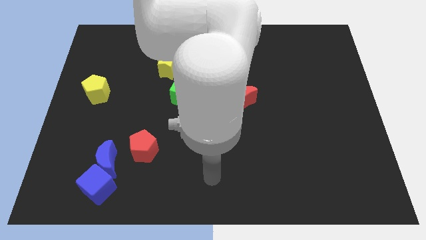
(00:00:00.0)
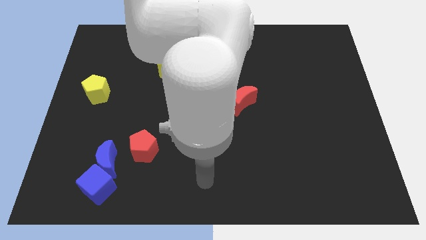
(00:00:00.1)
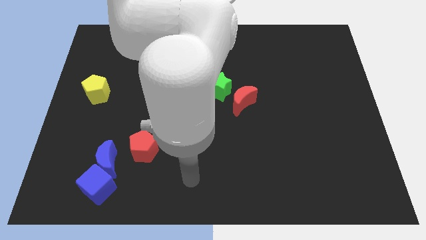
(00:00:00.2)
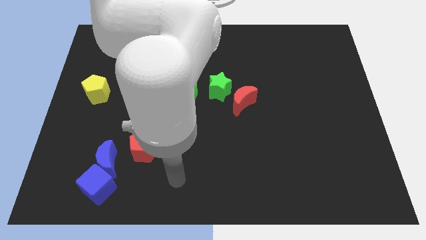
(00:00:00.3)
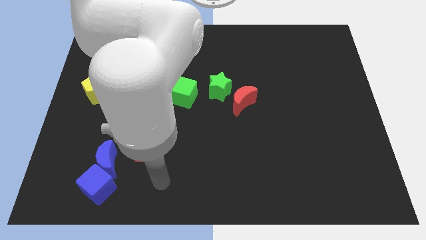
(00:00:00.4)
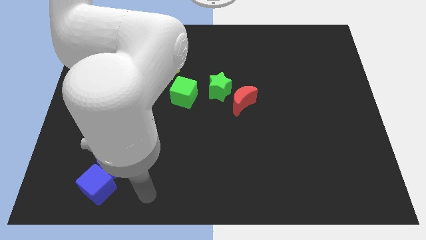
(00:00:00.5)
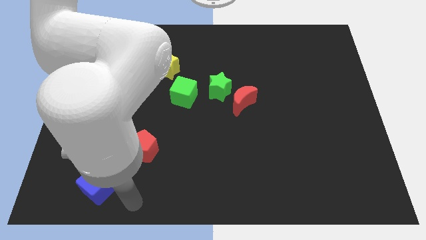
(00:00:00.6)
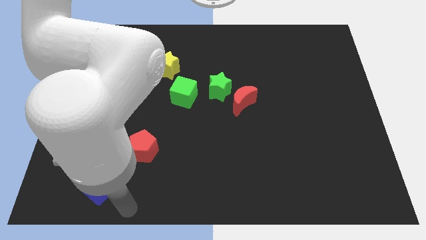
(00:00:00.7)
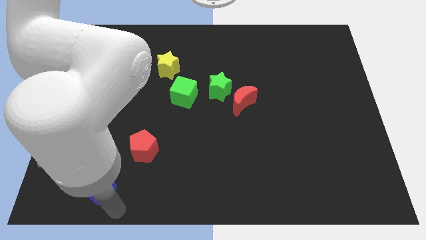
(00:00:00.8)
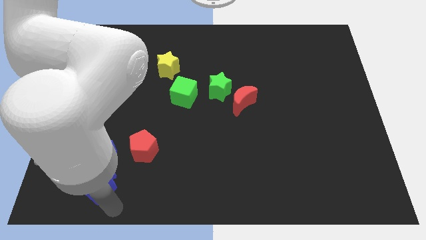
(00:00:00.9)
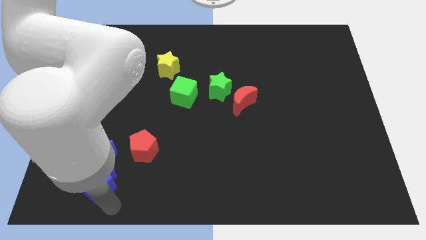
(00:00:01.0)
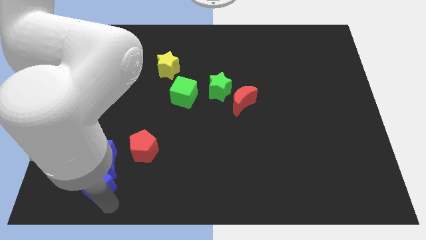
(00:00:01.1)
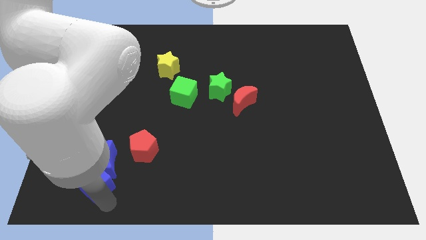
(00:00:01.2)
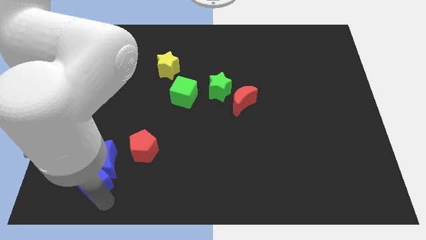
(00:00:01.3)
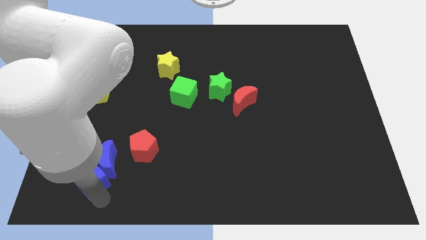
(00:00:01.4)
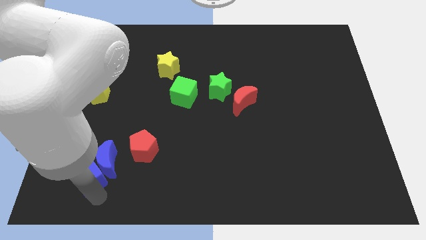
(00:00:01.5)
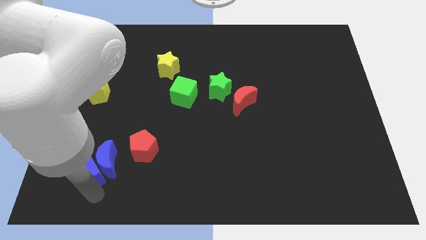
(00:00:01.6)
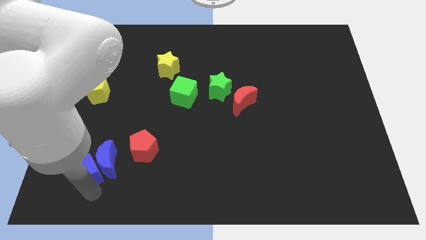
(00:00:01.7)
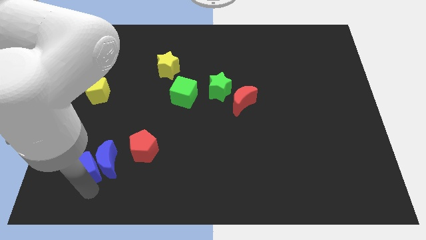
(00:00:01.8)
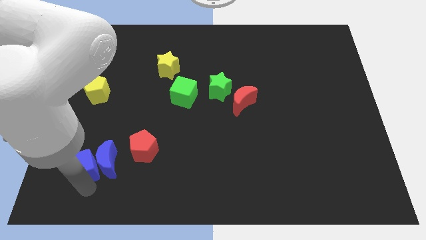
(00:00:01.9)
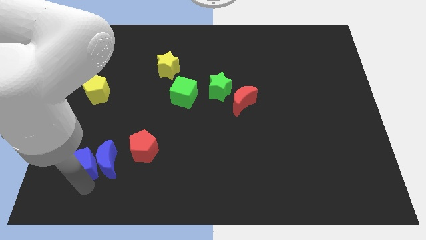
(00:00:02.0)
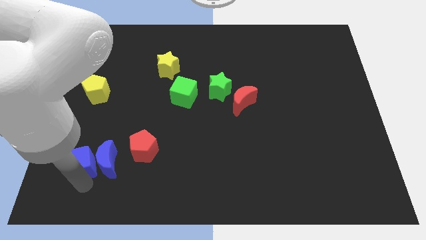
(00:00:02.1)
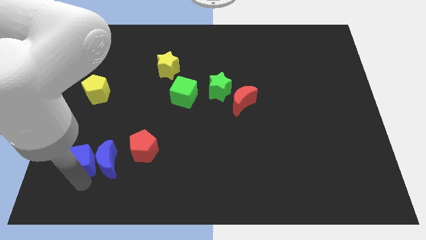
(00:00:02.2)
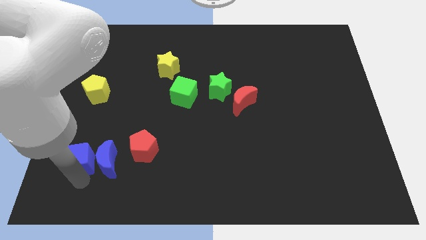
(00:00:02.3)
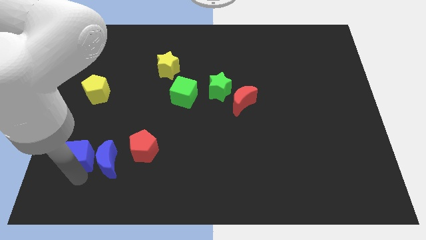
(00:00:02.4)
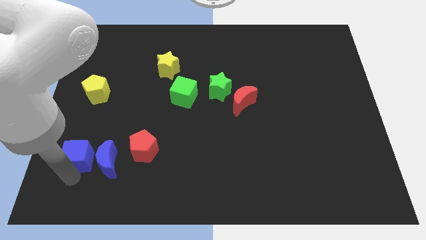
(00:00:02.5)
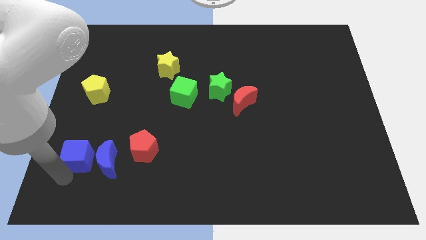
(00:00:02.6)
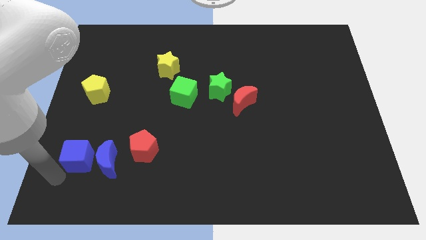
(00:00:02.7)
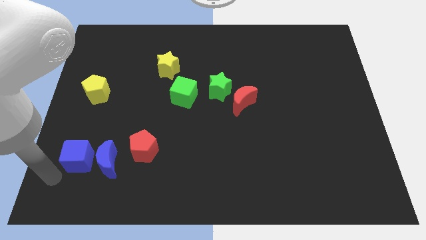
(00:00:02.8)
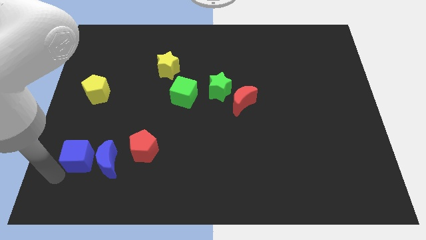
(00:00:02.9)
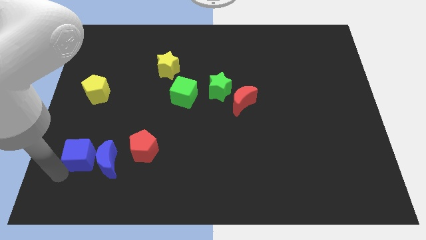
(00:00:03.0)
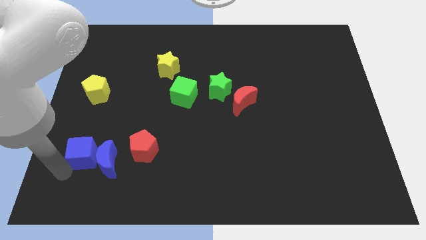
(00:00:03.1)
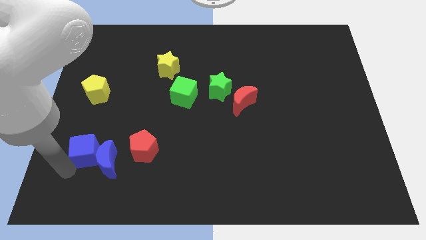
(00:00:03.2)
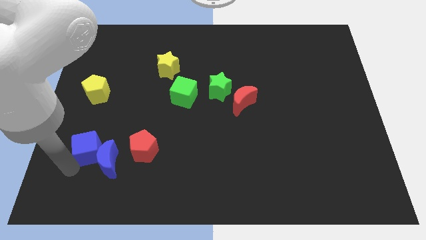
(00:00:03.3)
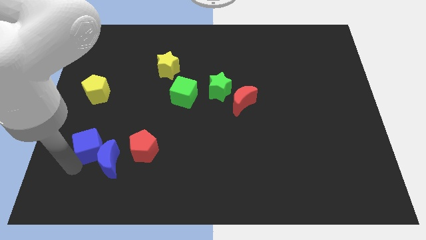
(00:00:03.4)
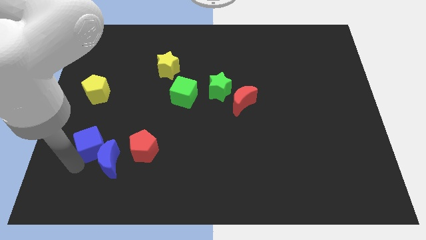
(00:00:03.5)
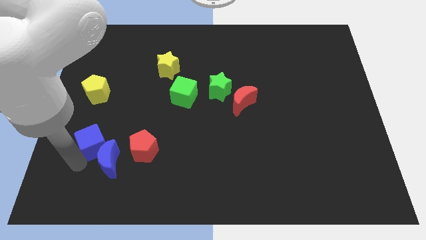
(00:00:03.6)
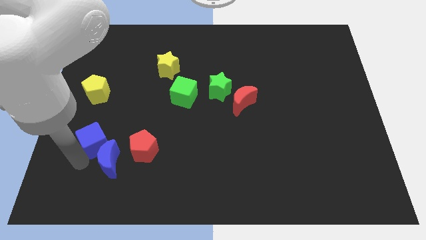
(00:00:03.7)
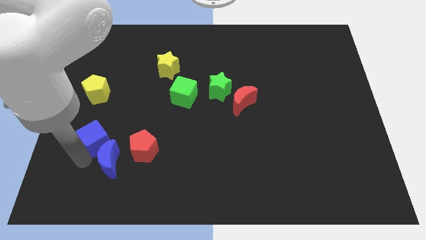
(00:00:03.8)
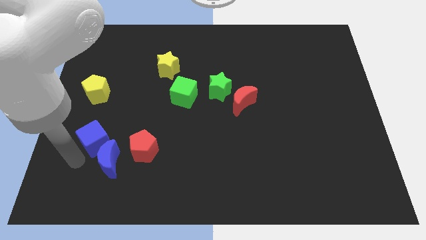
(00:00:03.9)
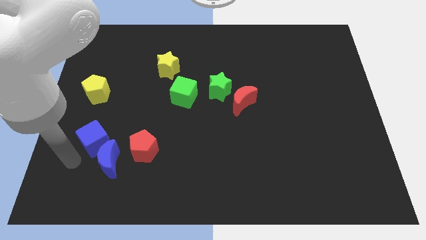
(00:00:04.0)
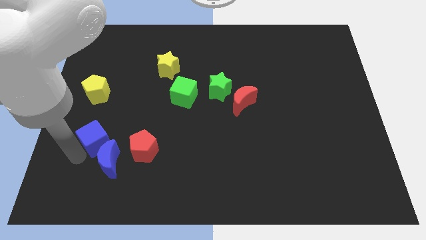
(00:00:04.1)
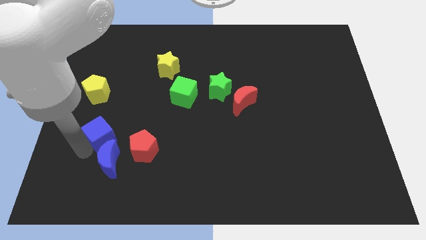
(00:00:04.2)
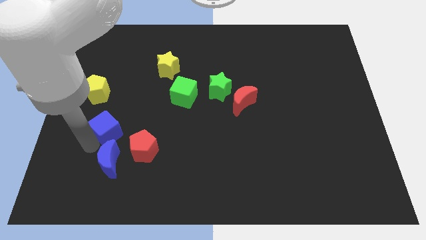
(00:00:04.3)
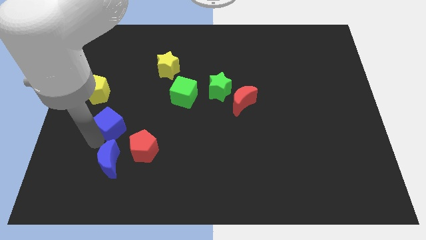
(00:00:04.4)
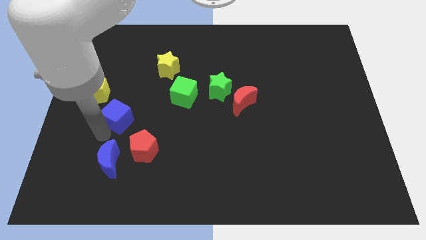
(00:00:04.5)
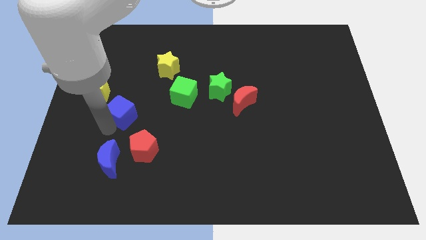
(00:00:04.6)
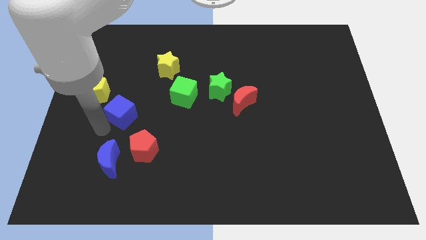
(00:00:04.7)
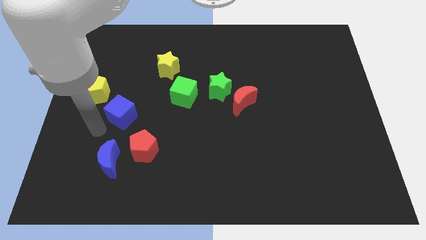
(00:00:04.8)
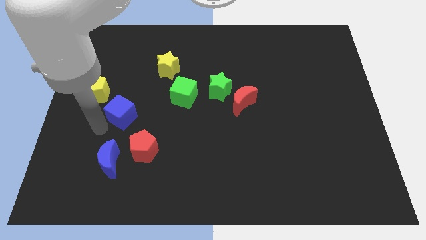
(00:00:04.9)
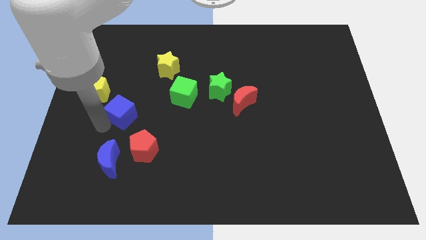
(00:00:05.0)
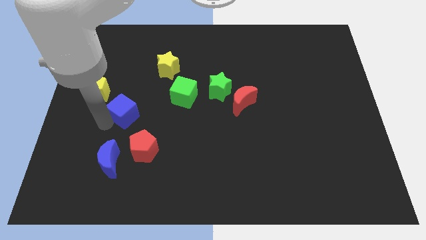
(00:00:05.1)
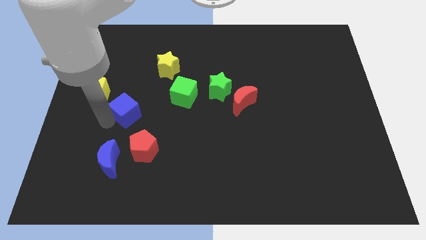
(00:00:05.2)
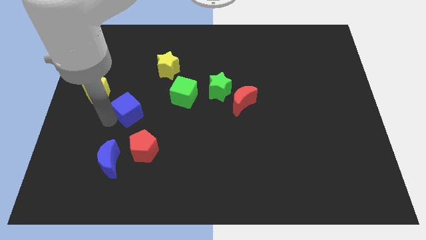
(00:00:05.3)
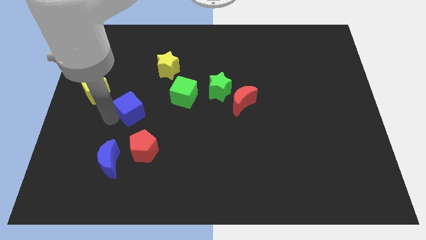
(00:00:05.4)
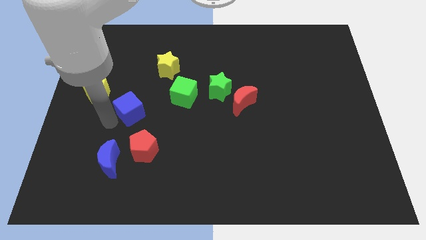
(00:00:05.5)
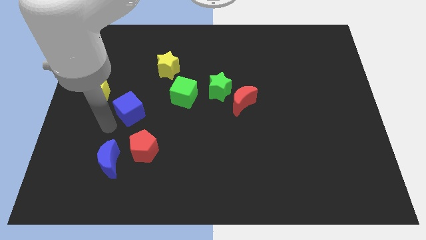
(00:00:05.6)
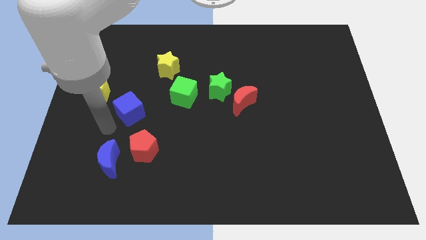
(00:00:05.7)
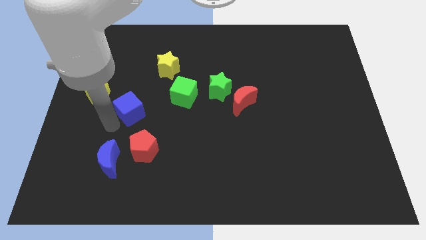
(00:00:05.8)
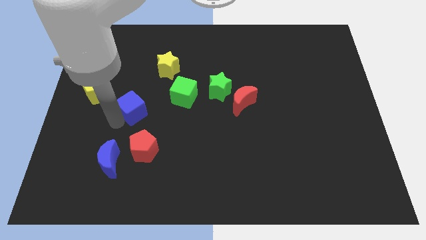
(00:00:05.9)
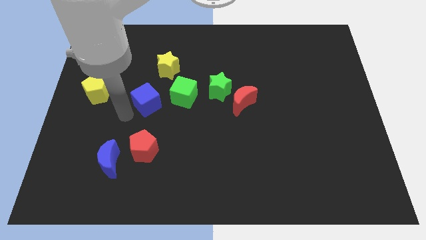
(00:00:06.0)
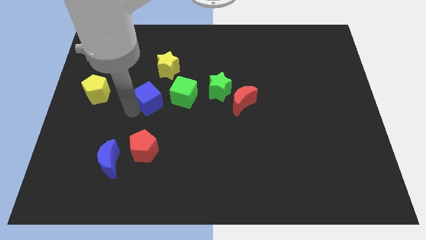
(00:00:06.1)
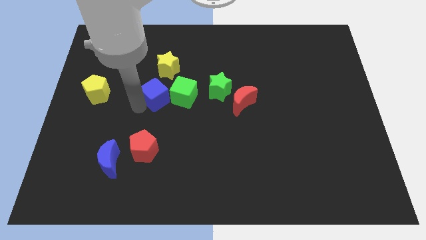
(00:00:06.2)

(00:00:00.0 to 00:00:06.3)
slide the blue cube left of the green star
